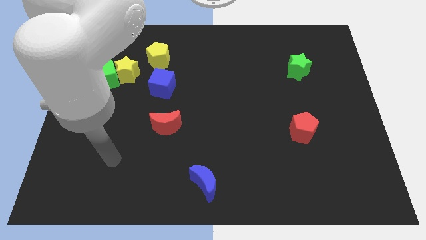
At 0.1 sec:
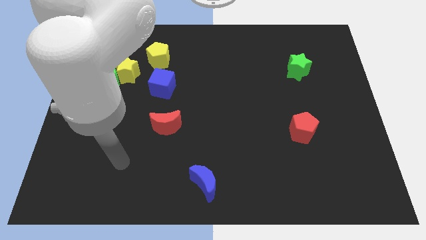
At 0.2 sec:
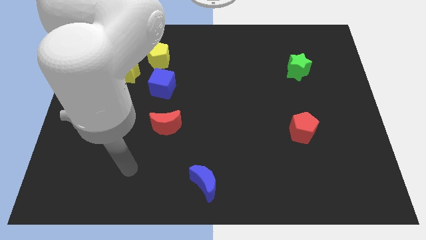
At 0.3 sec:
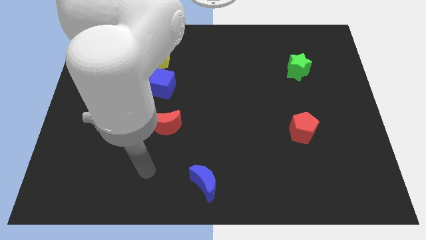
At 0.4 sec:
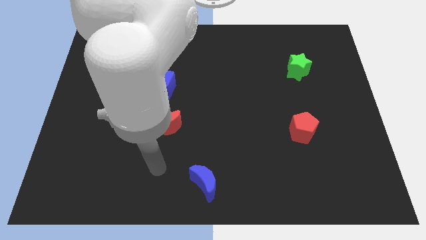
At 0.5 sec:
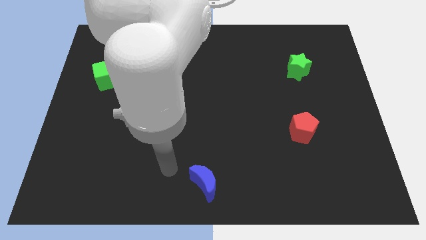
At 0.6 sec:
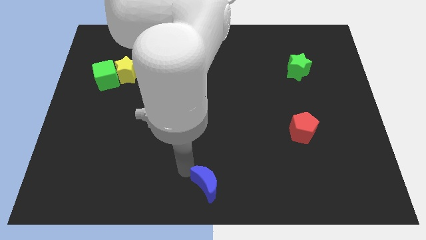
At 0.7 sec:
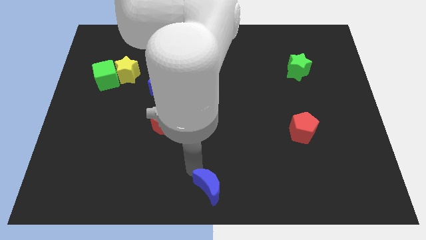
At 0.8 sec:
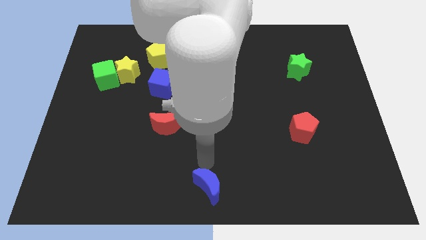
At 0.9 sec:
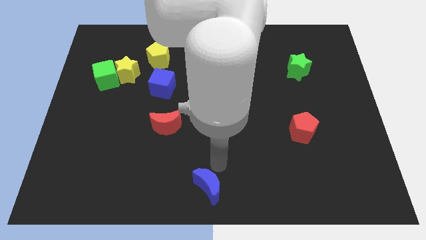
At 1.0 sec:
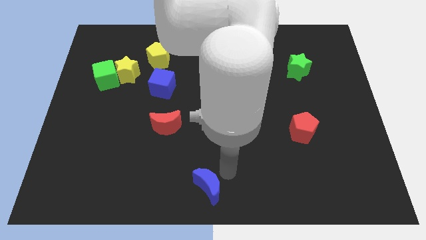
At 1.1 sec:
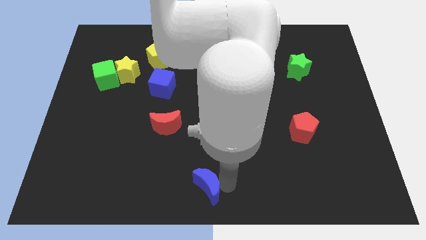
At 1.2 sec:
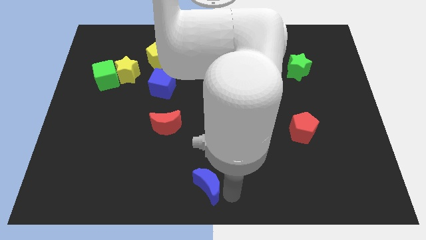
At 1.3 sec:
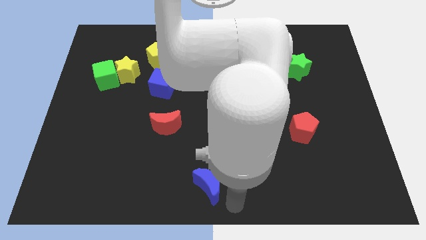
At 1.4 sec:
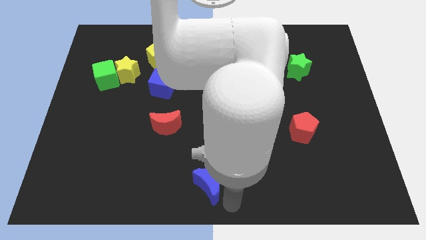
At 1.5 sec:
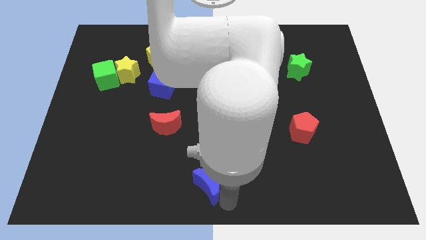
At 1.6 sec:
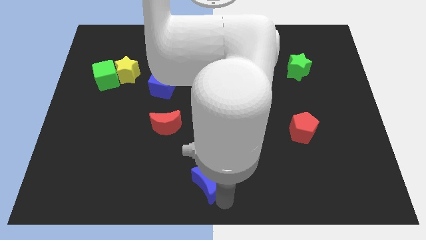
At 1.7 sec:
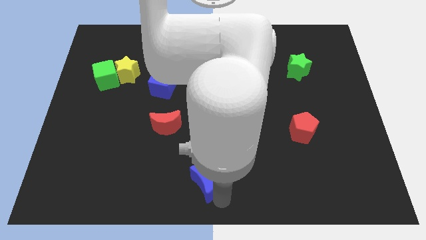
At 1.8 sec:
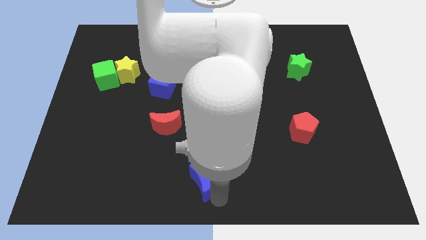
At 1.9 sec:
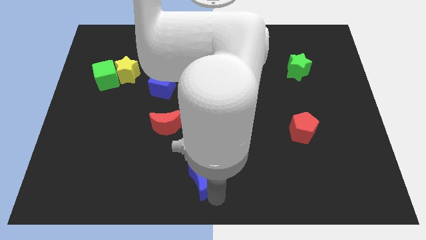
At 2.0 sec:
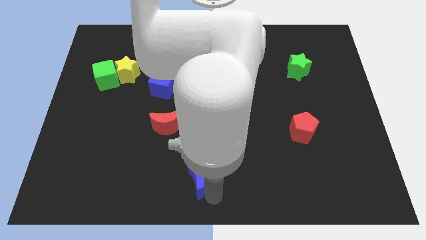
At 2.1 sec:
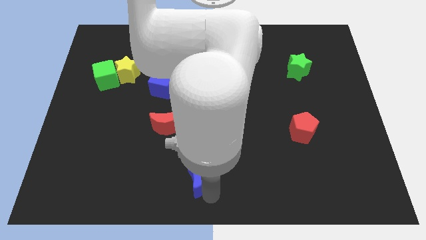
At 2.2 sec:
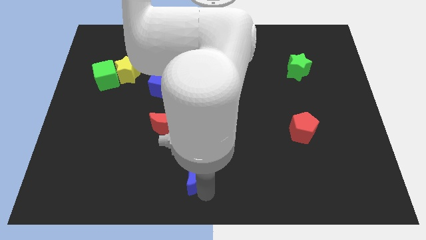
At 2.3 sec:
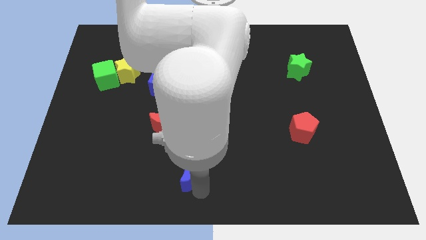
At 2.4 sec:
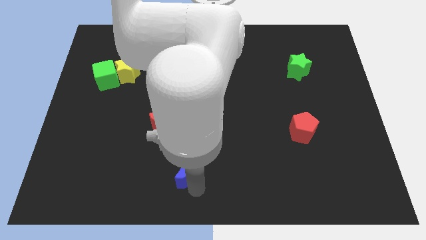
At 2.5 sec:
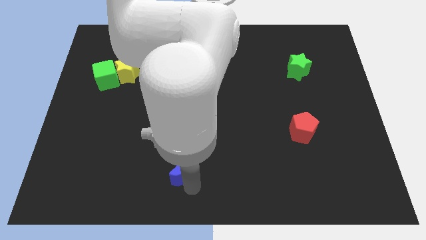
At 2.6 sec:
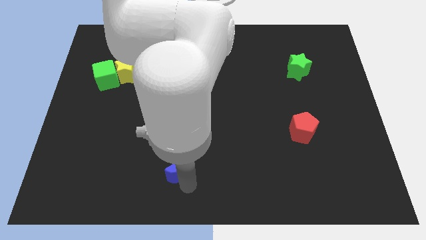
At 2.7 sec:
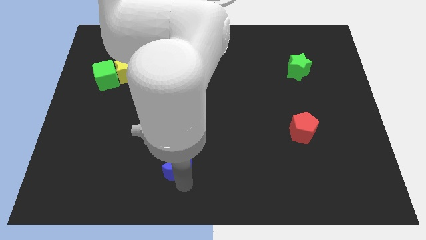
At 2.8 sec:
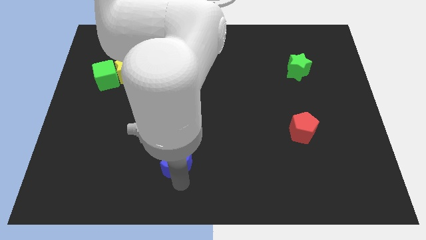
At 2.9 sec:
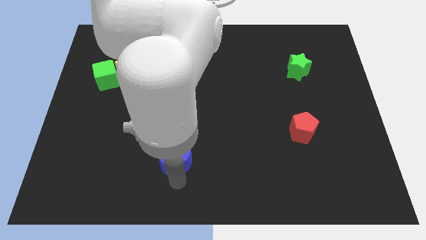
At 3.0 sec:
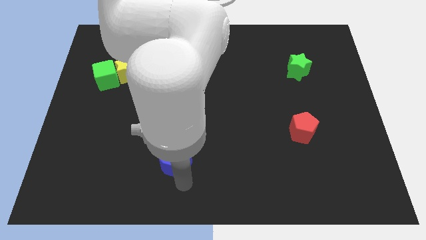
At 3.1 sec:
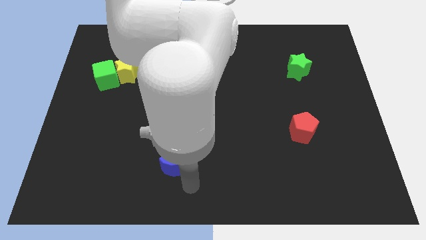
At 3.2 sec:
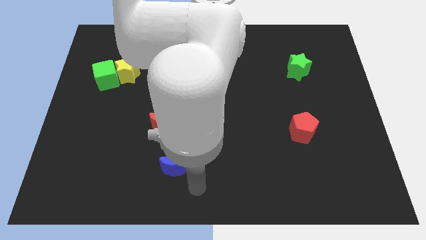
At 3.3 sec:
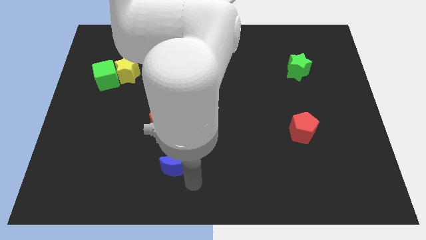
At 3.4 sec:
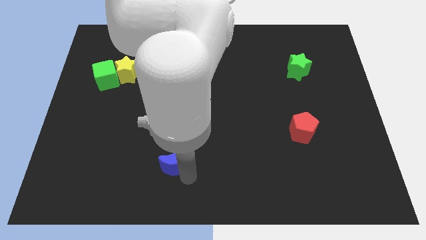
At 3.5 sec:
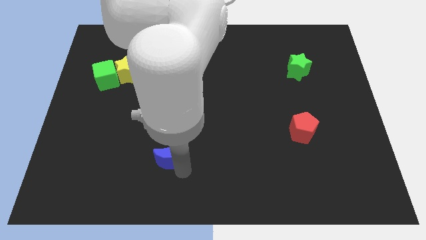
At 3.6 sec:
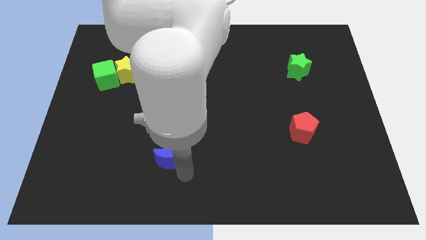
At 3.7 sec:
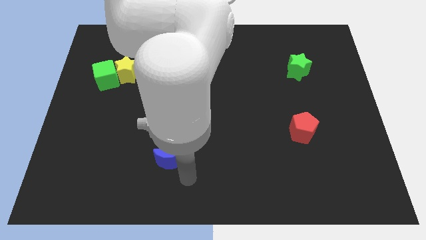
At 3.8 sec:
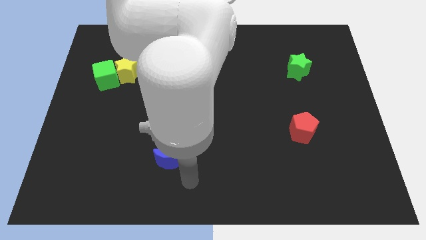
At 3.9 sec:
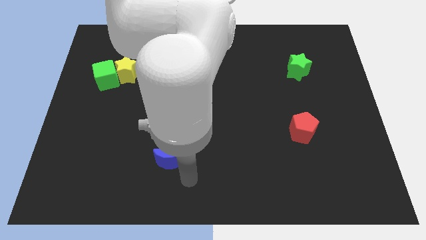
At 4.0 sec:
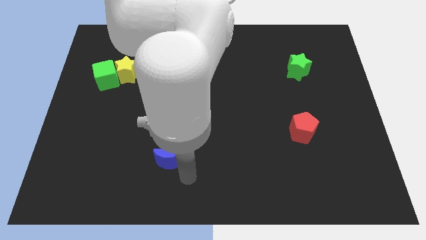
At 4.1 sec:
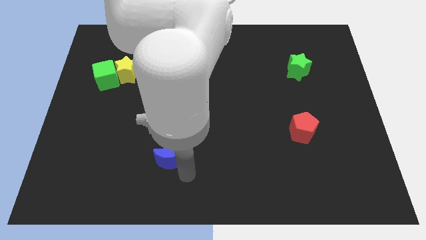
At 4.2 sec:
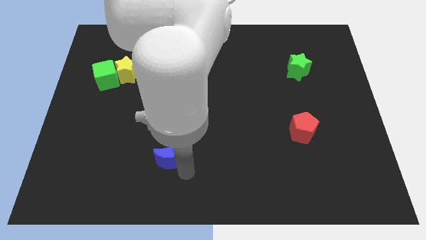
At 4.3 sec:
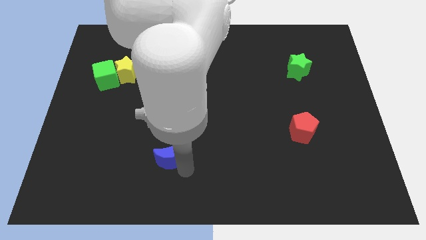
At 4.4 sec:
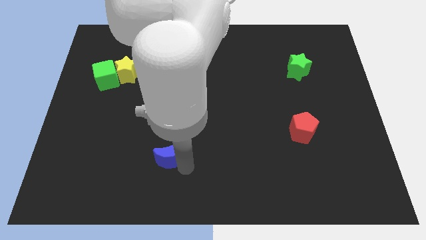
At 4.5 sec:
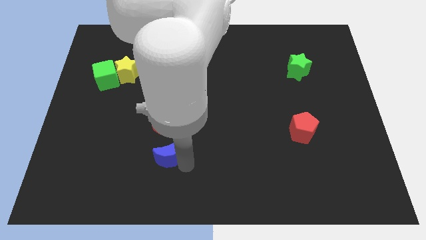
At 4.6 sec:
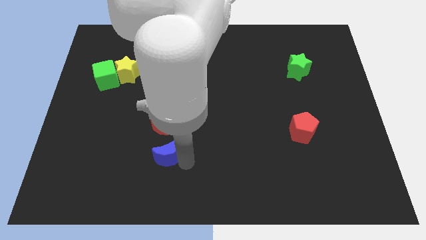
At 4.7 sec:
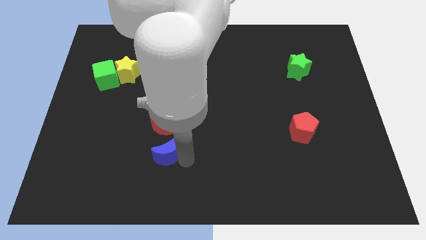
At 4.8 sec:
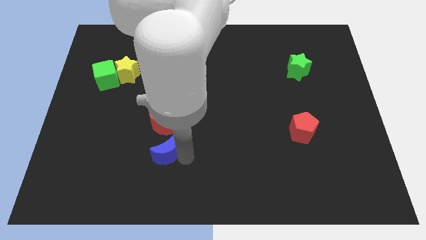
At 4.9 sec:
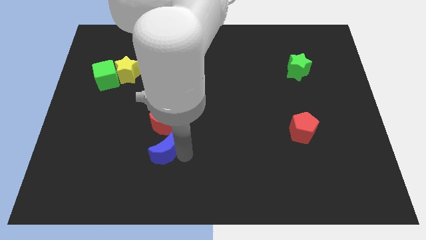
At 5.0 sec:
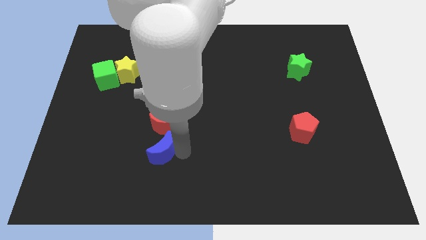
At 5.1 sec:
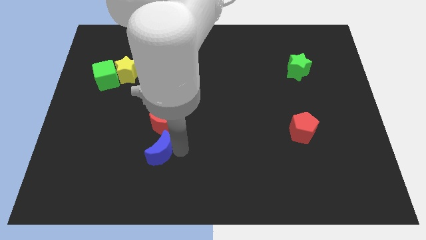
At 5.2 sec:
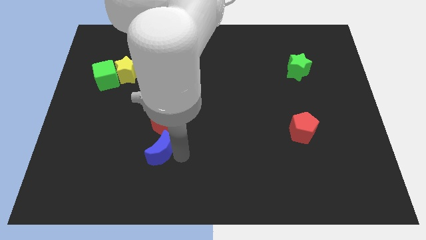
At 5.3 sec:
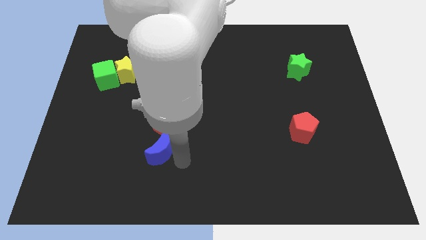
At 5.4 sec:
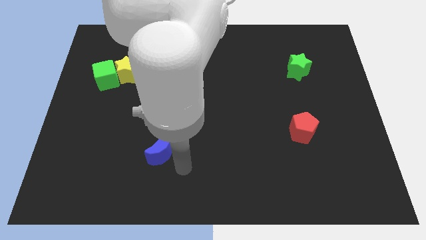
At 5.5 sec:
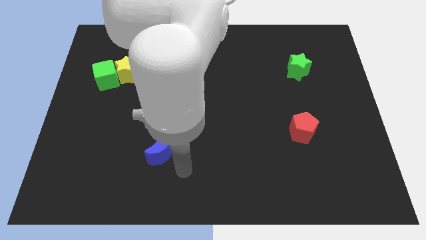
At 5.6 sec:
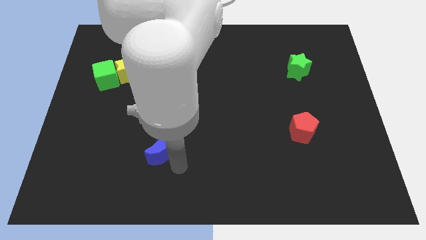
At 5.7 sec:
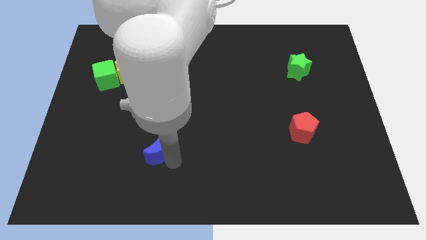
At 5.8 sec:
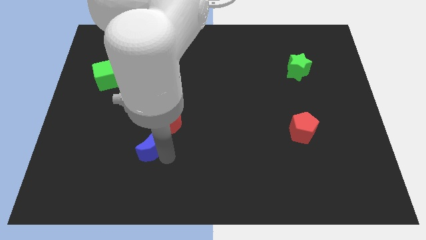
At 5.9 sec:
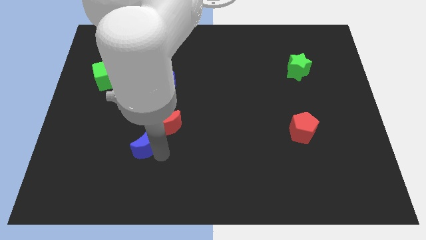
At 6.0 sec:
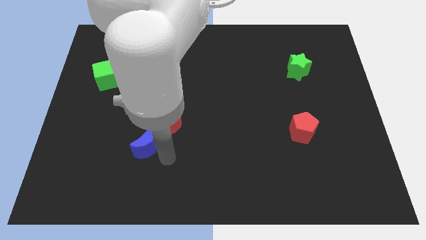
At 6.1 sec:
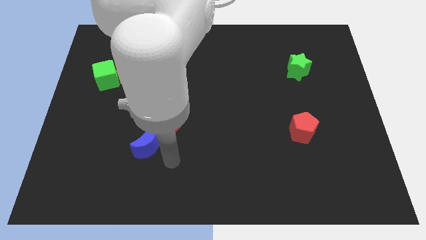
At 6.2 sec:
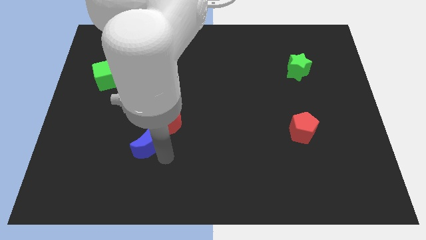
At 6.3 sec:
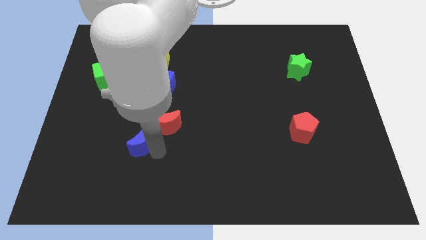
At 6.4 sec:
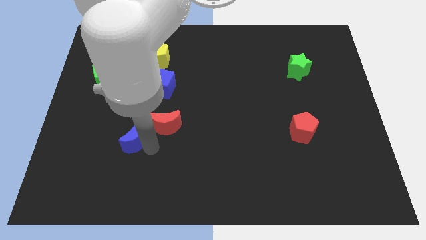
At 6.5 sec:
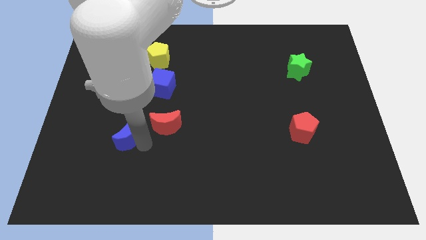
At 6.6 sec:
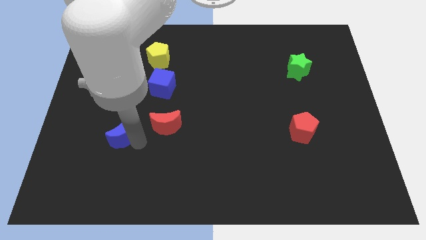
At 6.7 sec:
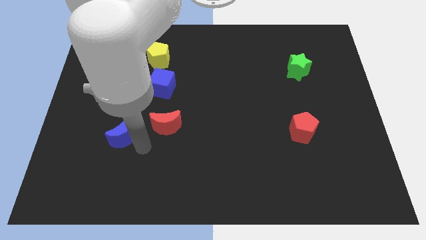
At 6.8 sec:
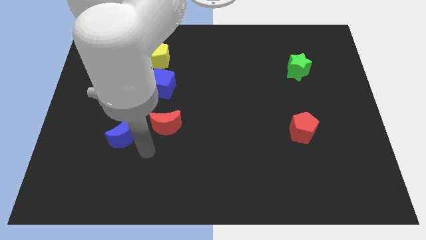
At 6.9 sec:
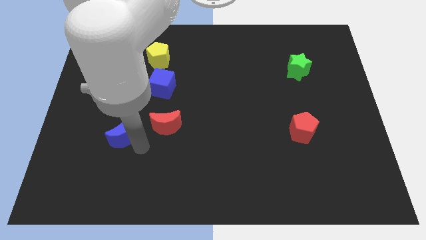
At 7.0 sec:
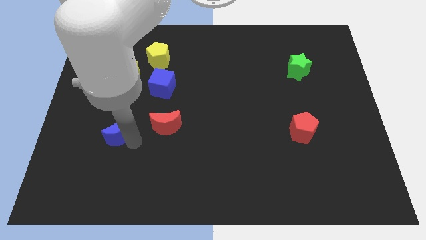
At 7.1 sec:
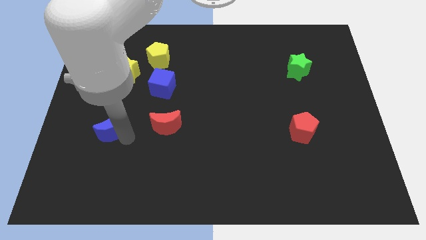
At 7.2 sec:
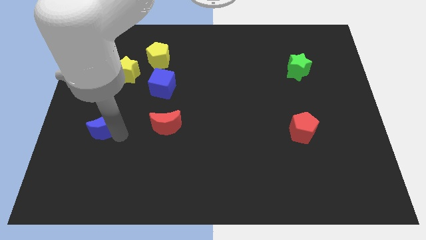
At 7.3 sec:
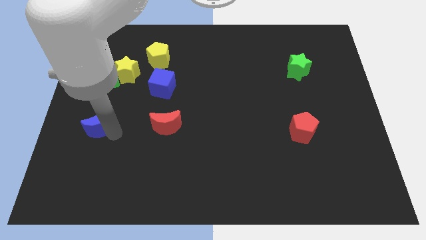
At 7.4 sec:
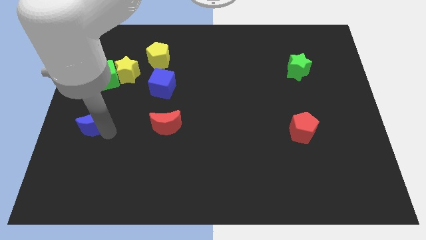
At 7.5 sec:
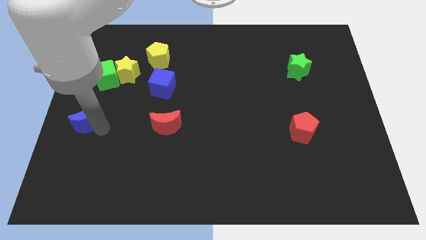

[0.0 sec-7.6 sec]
slide the blue moon to the center left
